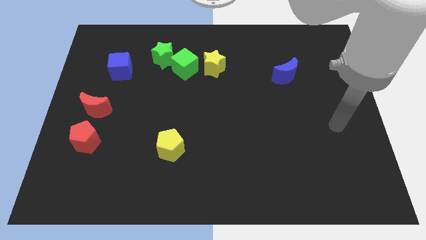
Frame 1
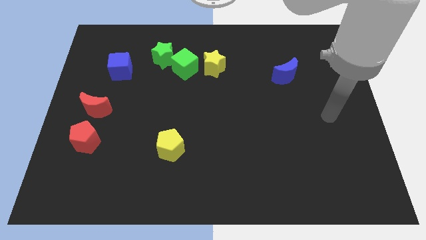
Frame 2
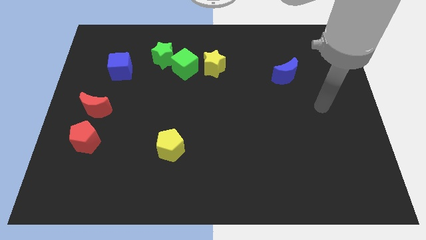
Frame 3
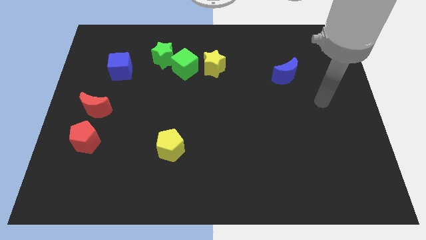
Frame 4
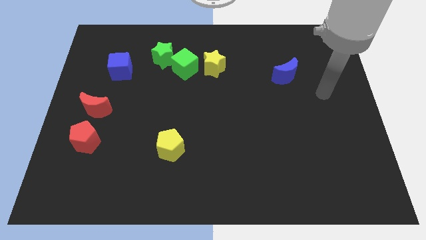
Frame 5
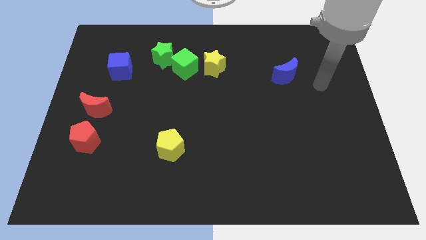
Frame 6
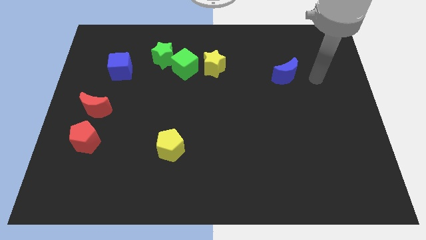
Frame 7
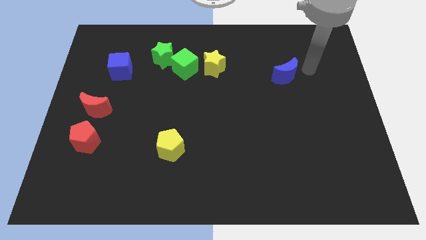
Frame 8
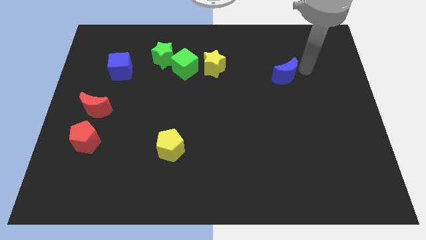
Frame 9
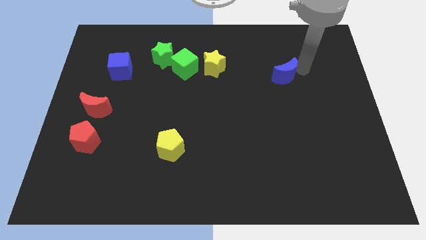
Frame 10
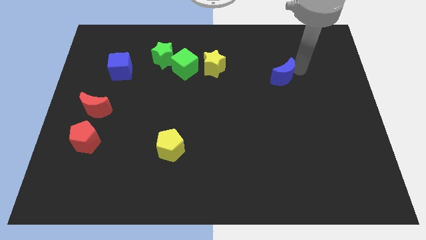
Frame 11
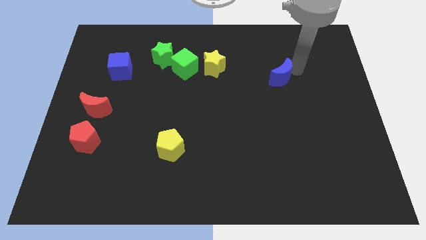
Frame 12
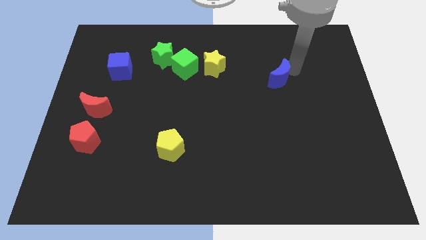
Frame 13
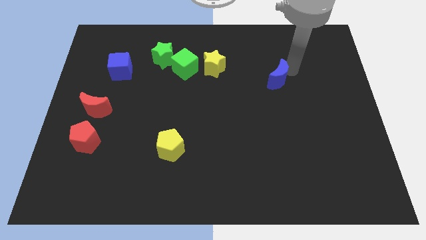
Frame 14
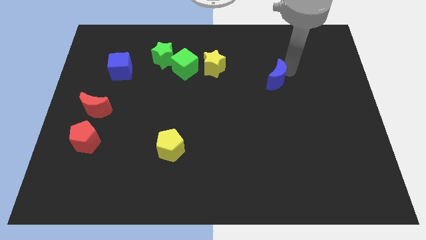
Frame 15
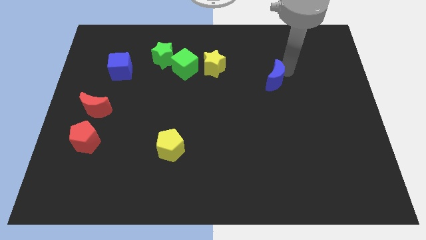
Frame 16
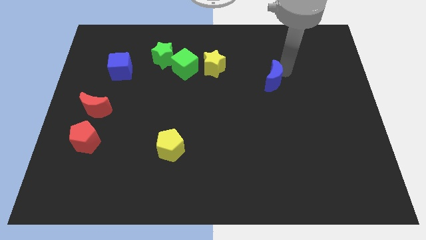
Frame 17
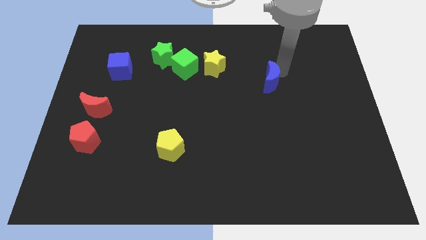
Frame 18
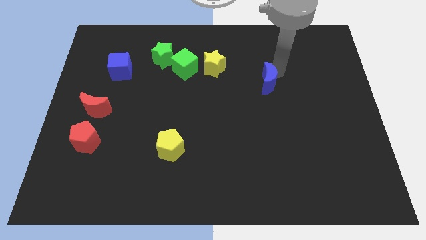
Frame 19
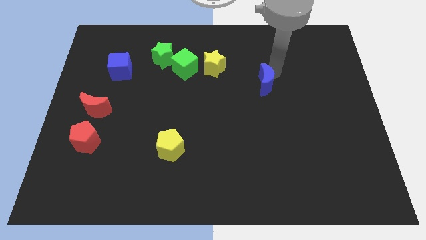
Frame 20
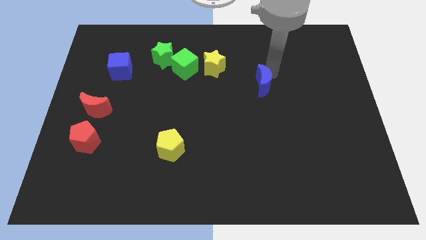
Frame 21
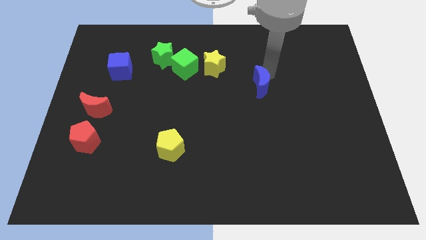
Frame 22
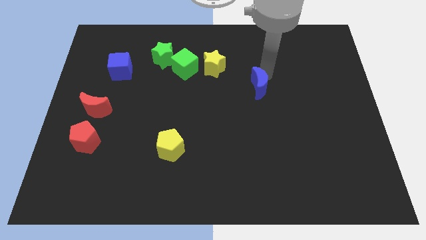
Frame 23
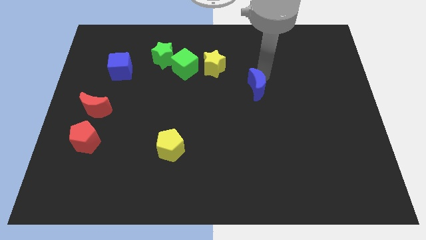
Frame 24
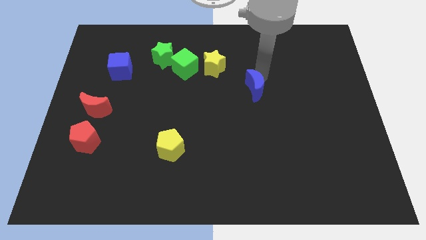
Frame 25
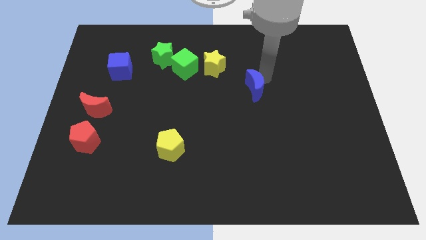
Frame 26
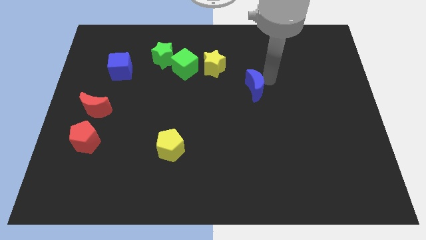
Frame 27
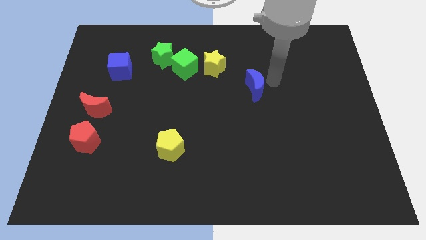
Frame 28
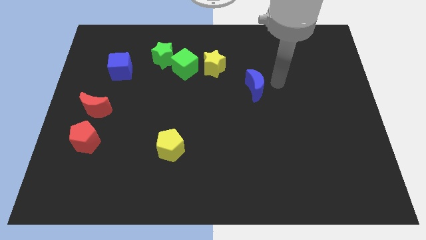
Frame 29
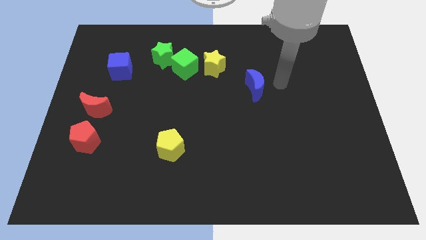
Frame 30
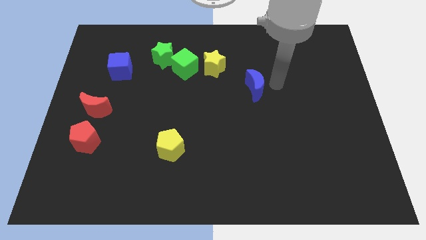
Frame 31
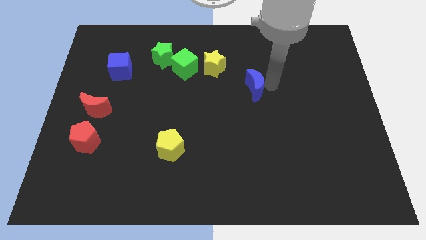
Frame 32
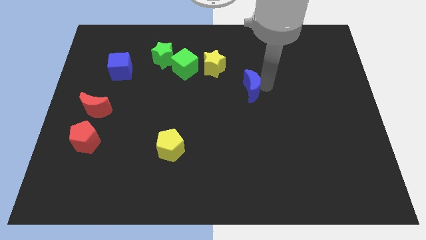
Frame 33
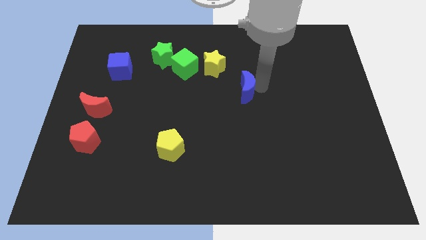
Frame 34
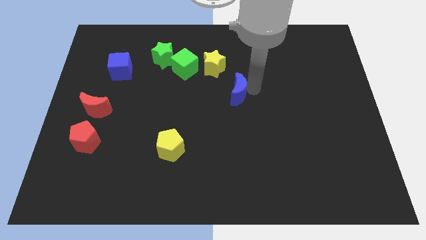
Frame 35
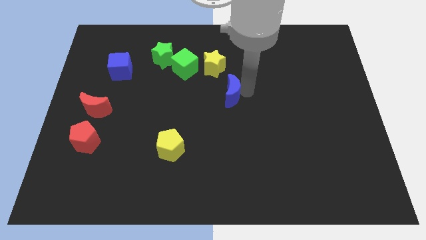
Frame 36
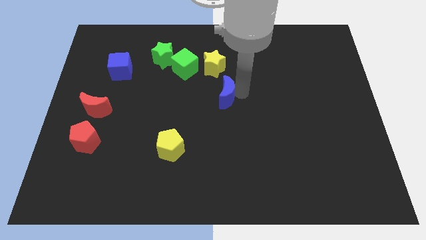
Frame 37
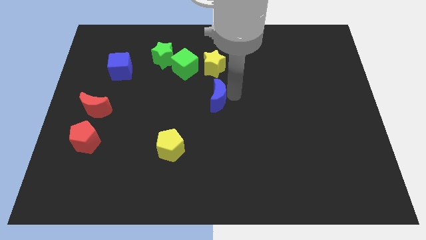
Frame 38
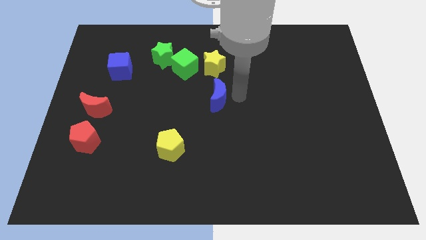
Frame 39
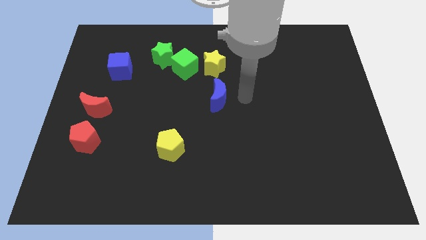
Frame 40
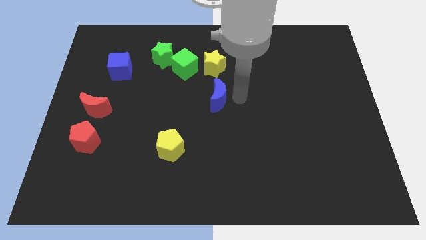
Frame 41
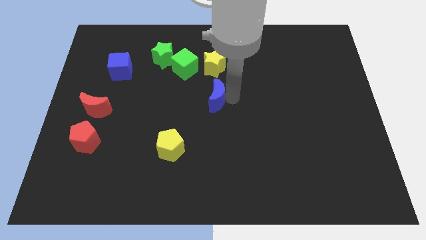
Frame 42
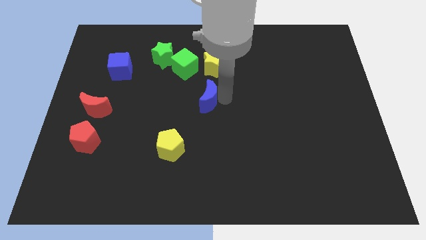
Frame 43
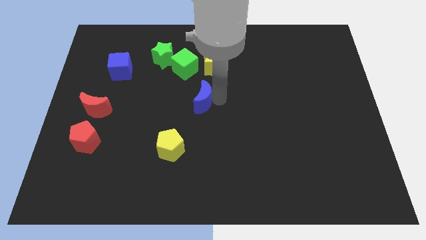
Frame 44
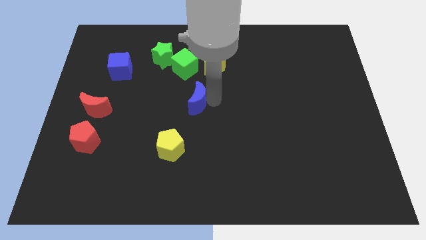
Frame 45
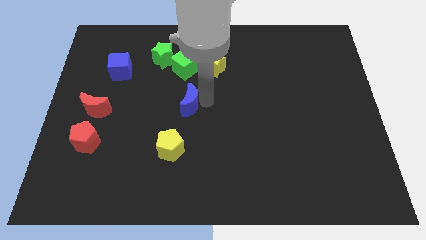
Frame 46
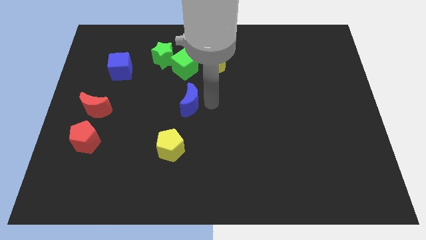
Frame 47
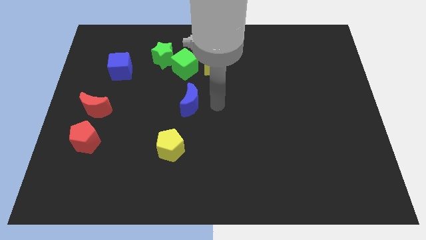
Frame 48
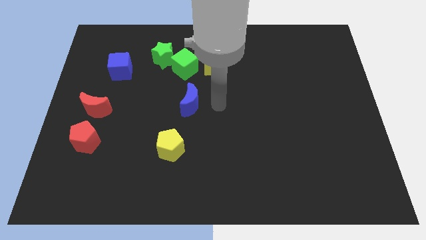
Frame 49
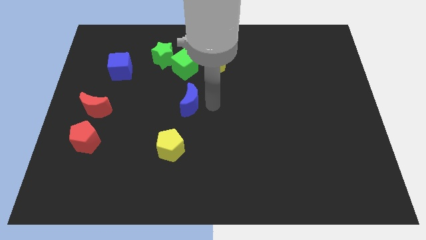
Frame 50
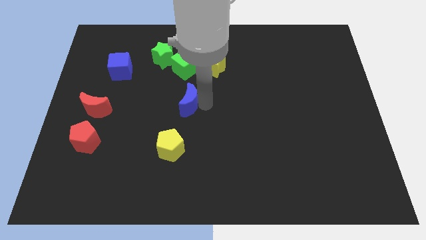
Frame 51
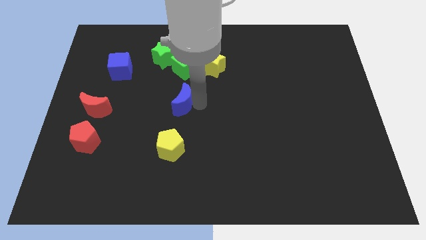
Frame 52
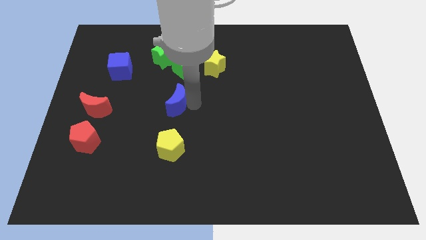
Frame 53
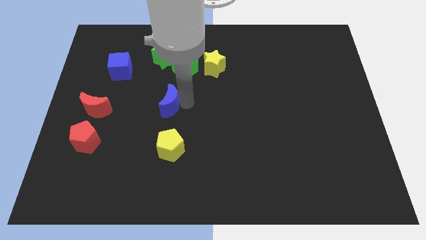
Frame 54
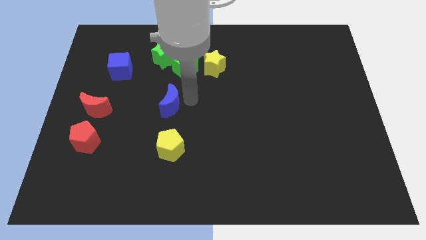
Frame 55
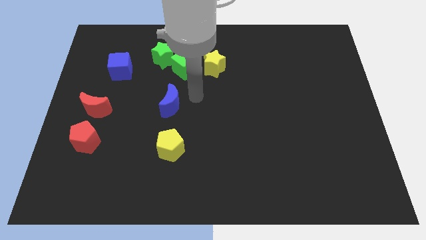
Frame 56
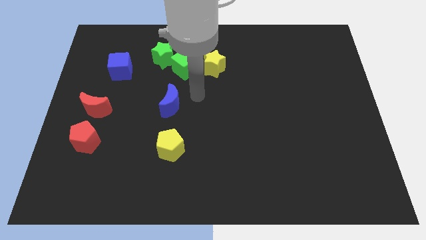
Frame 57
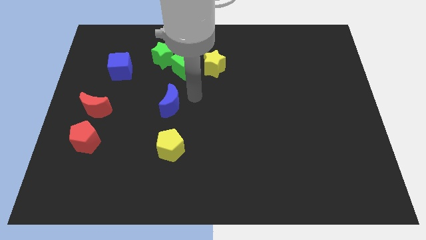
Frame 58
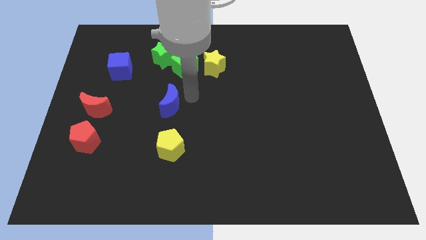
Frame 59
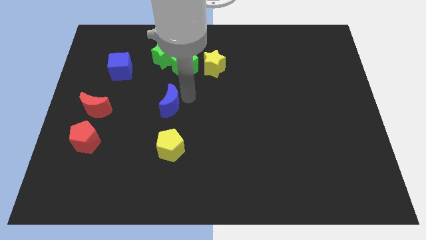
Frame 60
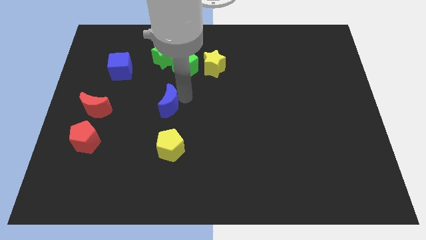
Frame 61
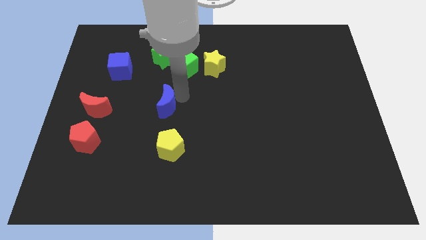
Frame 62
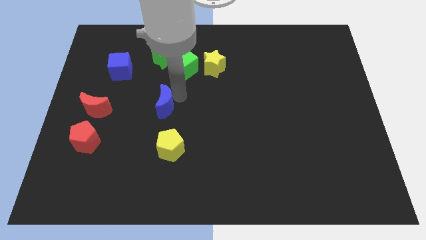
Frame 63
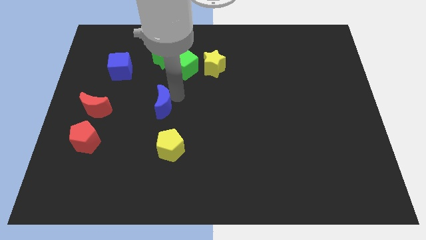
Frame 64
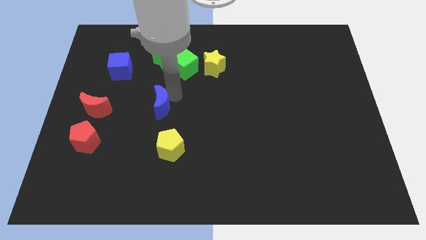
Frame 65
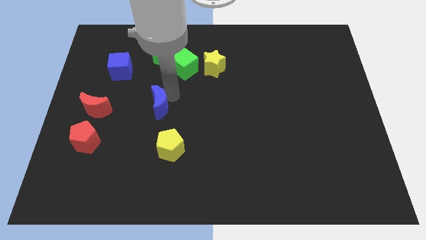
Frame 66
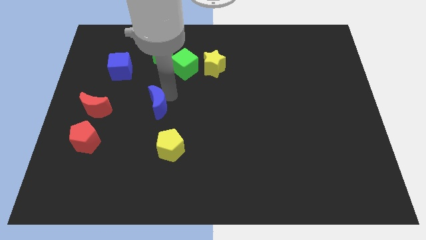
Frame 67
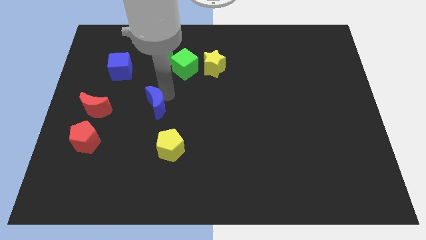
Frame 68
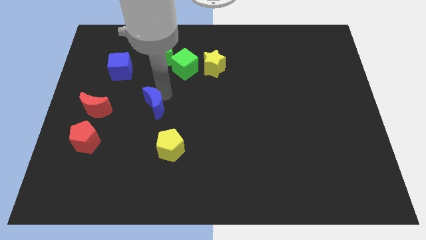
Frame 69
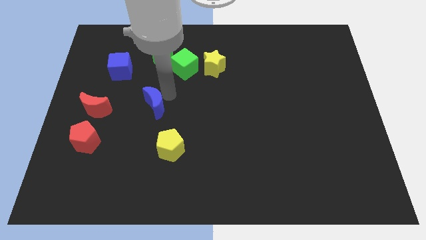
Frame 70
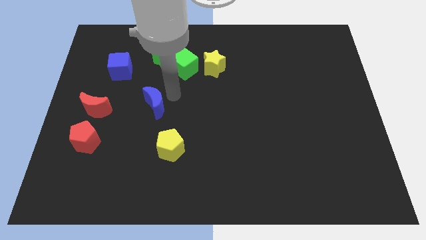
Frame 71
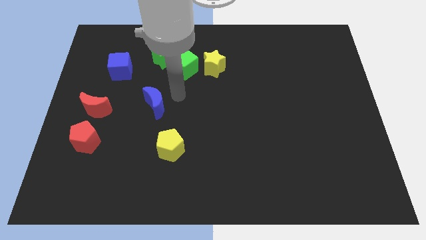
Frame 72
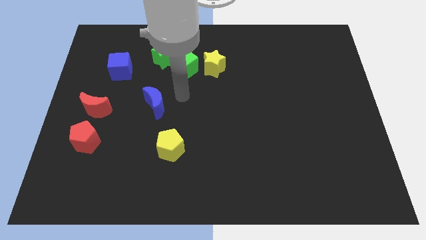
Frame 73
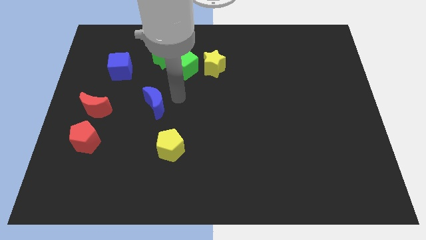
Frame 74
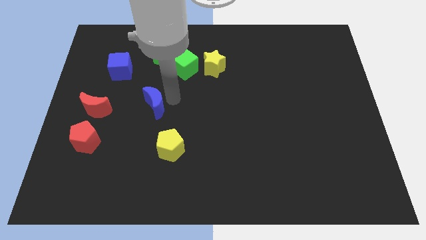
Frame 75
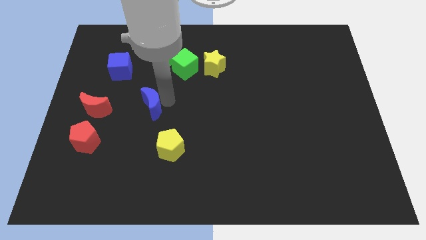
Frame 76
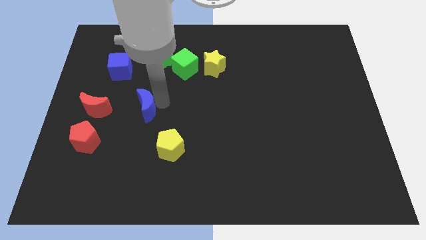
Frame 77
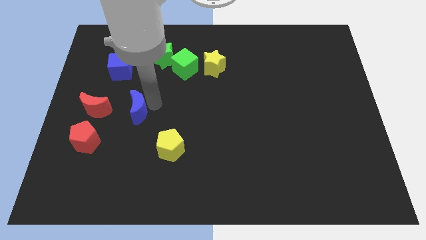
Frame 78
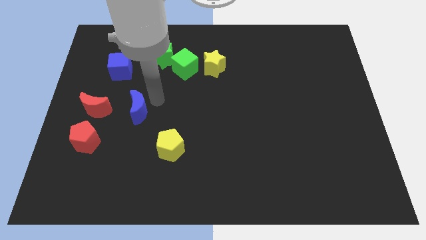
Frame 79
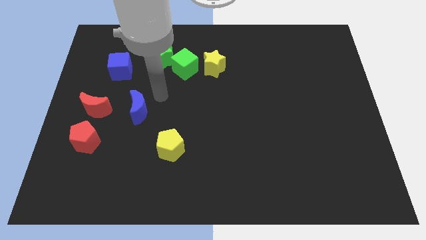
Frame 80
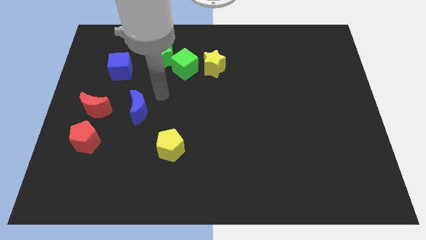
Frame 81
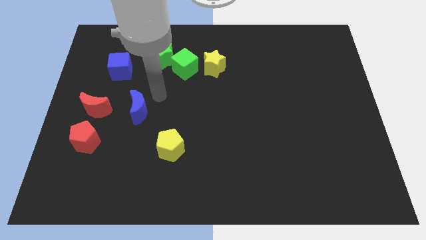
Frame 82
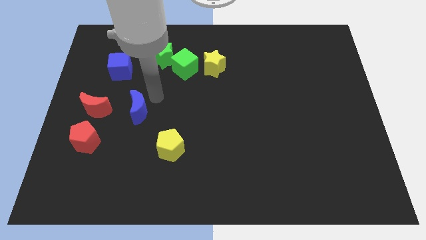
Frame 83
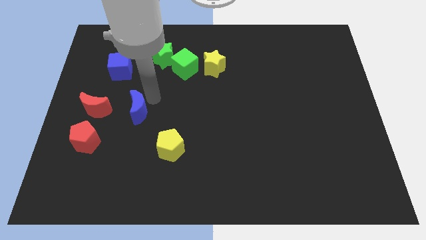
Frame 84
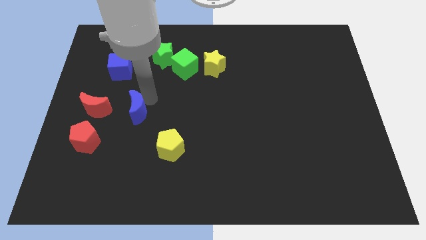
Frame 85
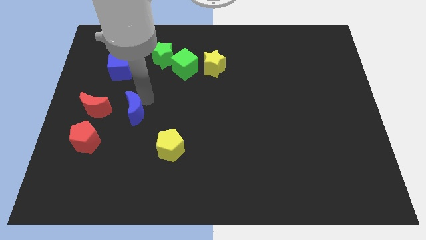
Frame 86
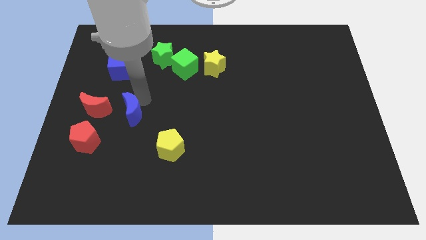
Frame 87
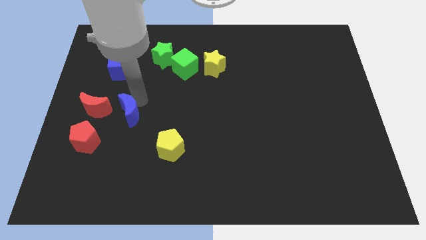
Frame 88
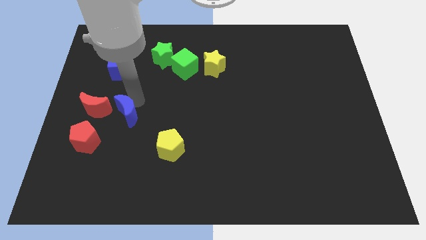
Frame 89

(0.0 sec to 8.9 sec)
push the blue moon diagonally down and to the right of the red moon
